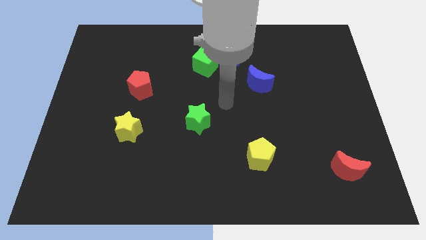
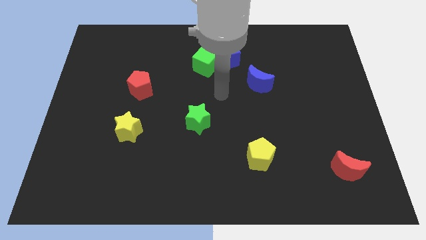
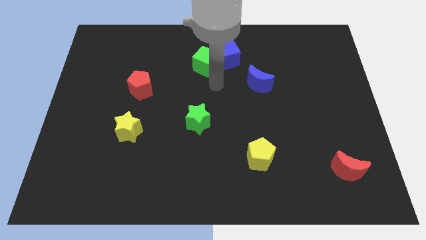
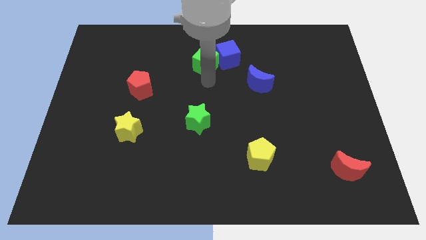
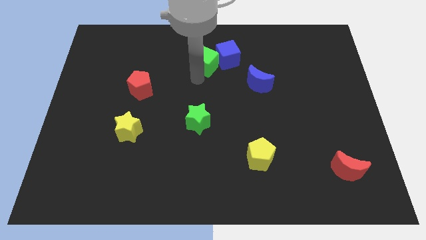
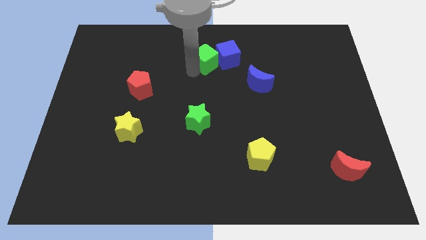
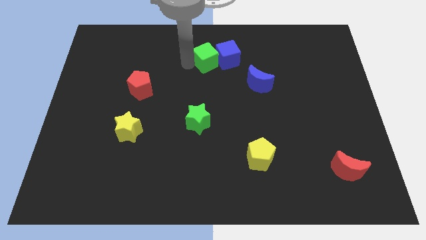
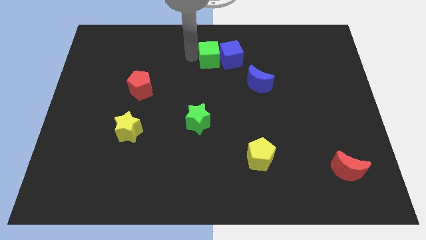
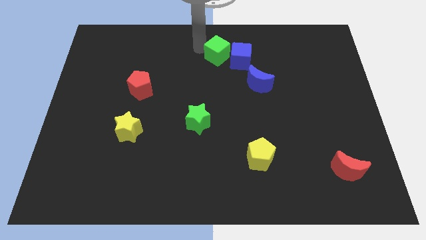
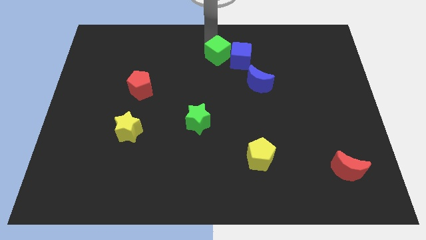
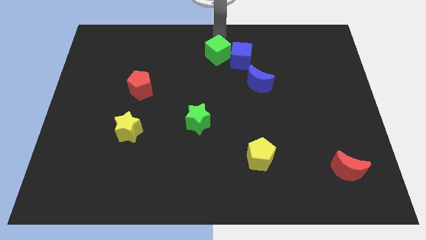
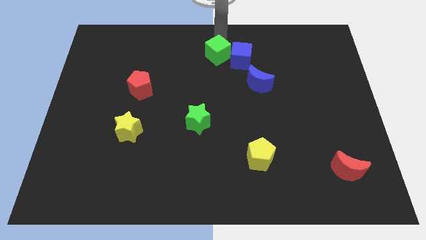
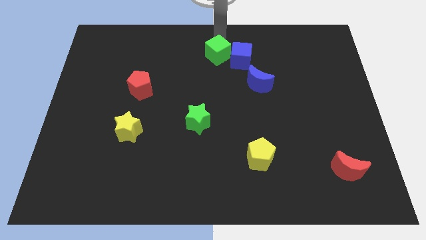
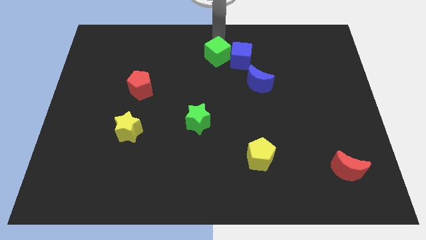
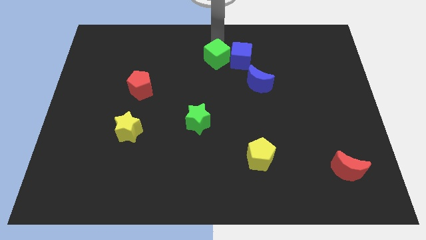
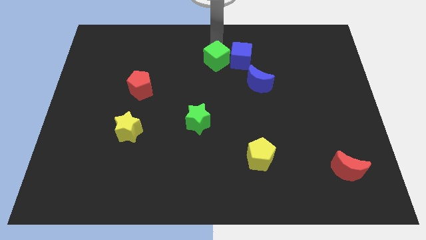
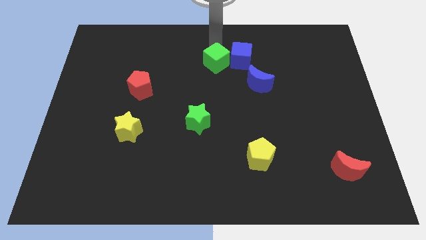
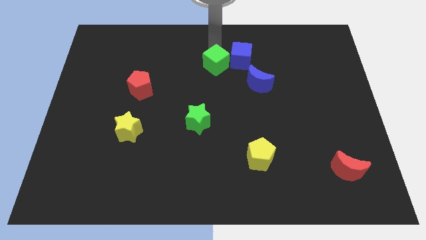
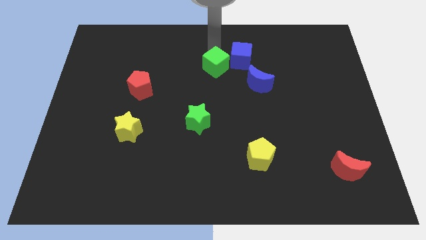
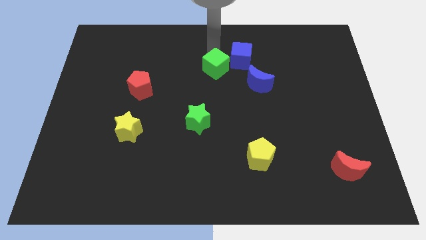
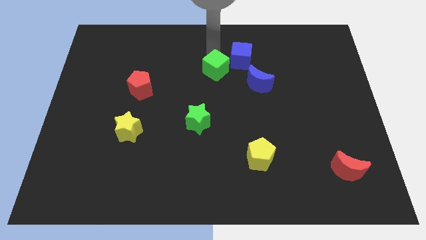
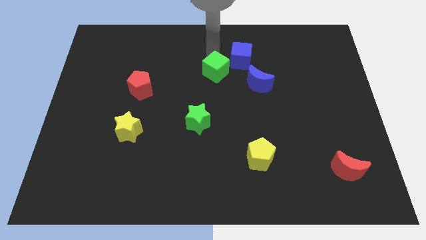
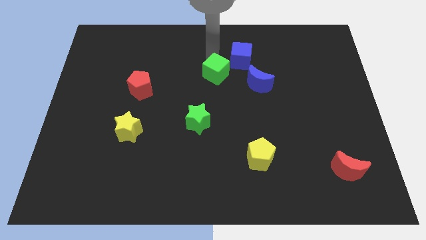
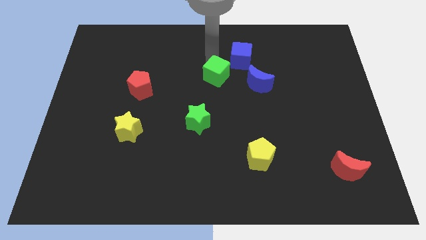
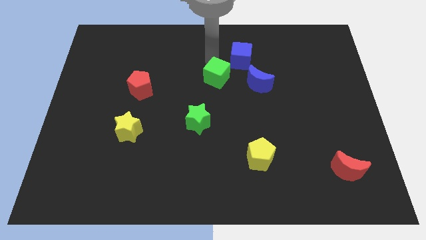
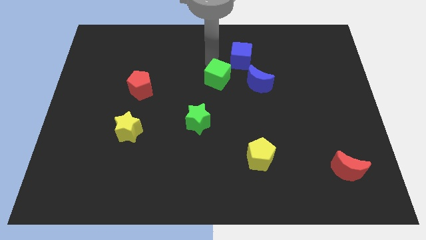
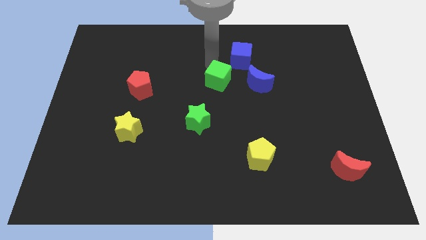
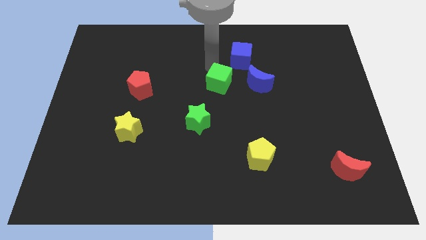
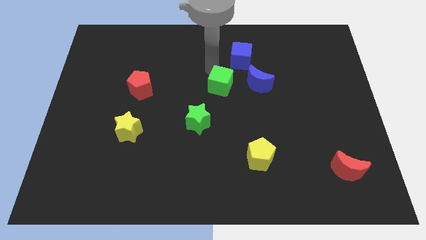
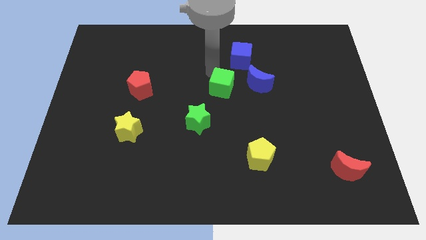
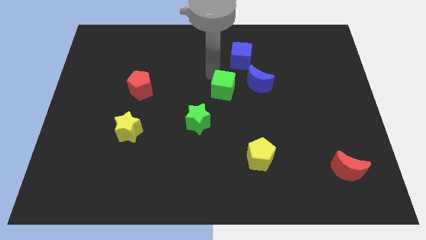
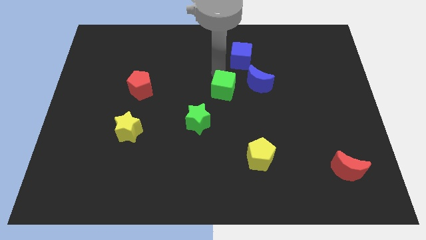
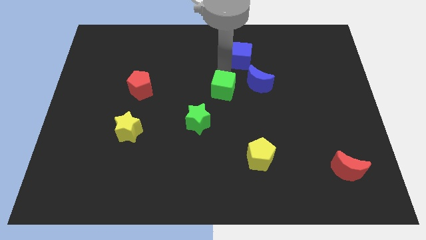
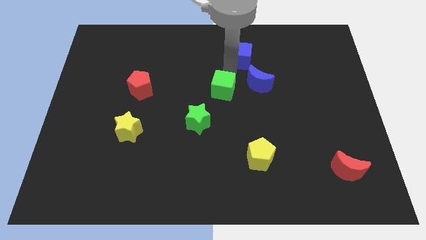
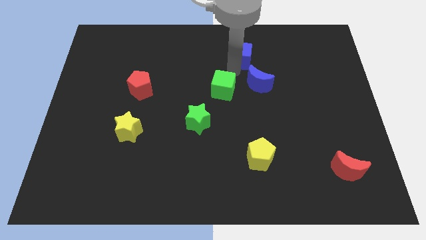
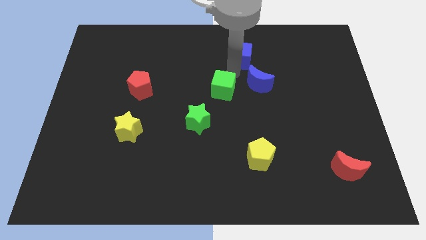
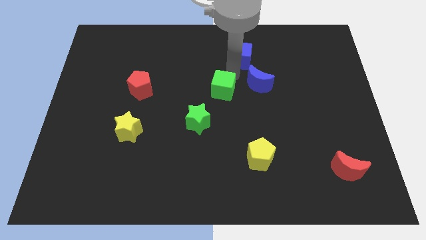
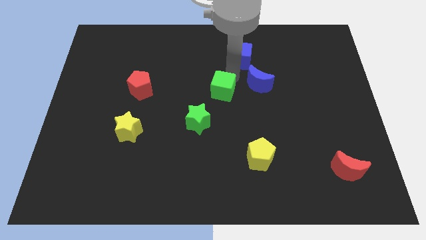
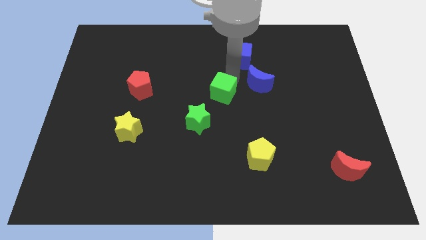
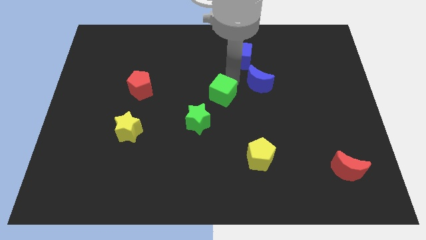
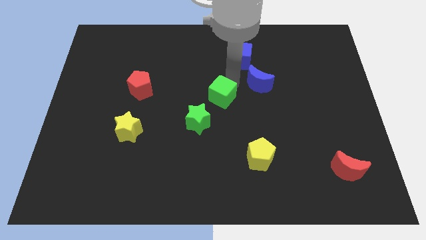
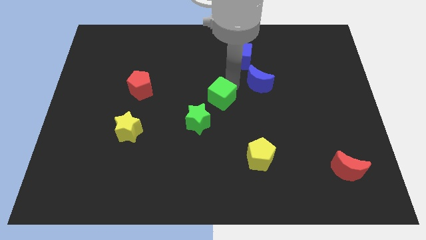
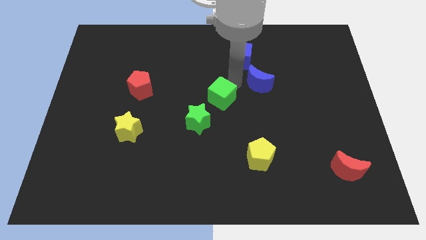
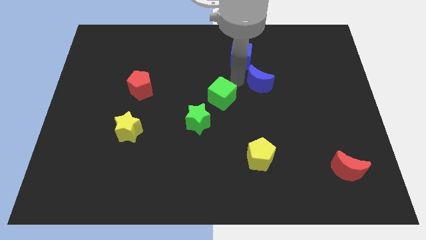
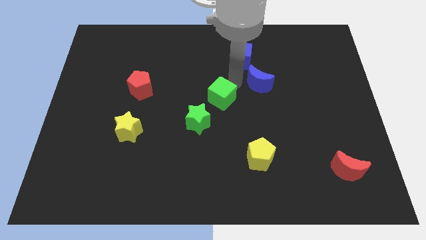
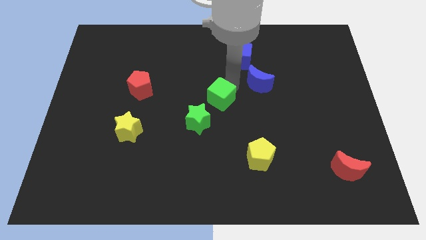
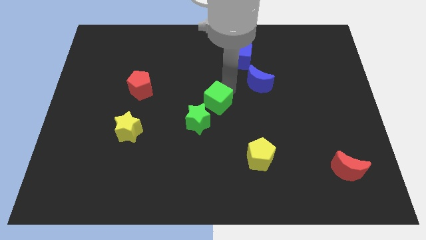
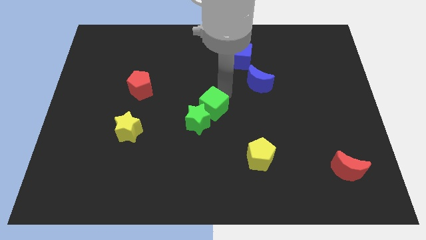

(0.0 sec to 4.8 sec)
move the green cube towards the green star

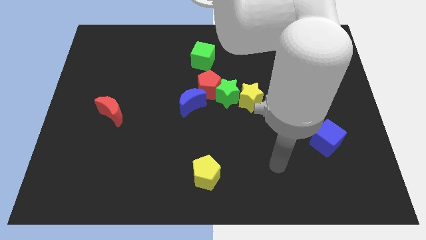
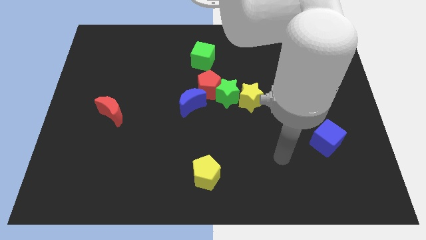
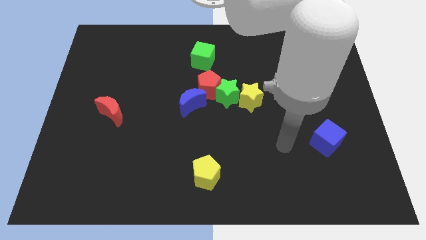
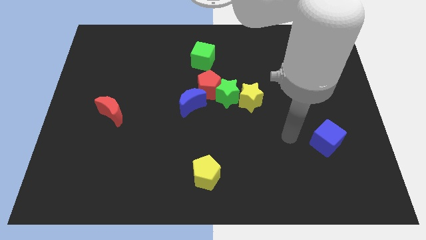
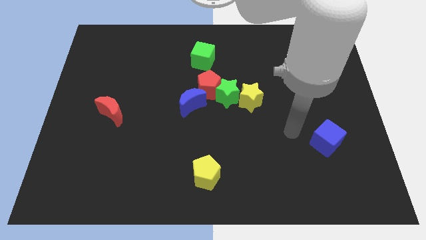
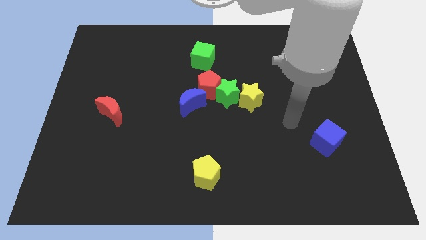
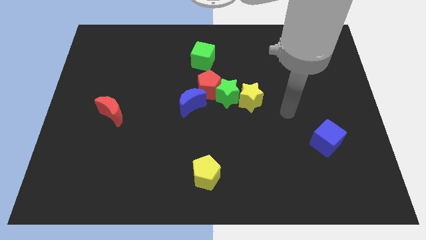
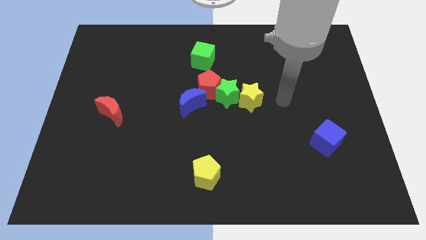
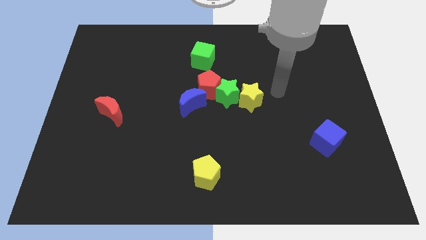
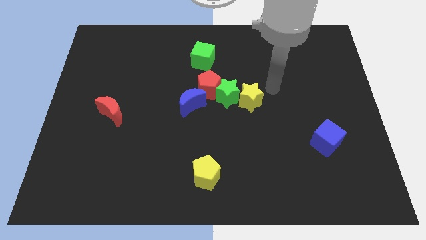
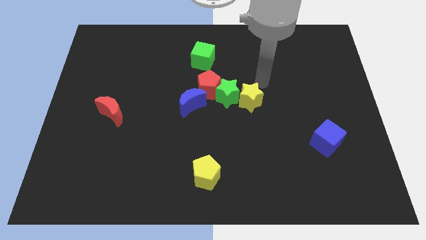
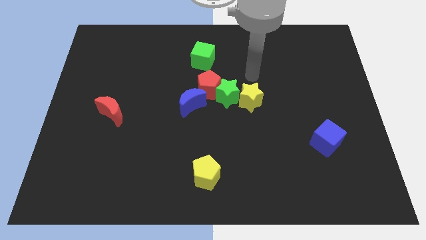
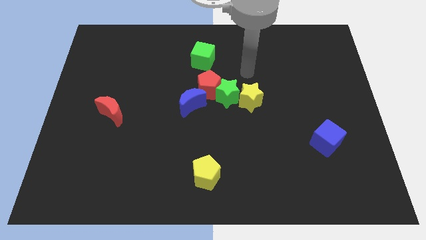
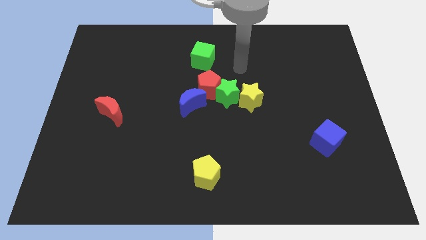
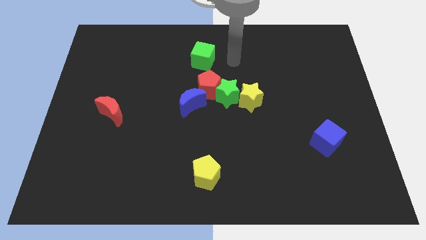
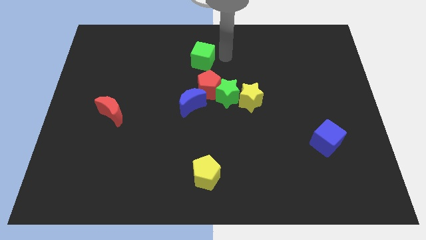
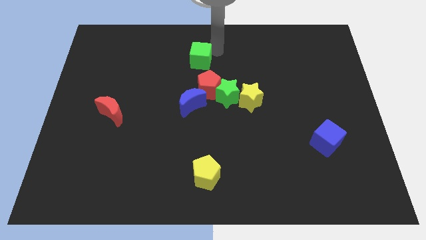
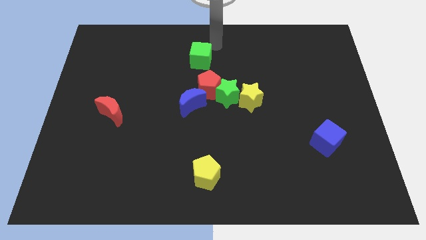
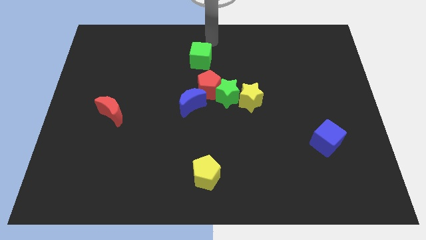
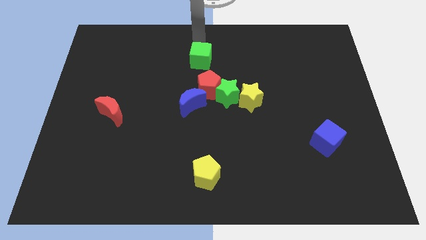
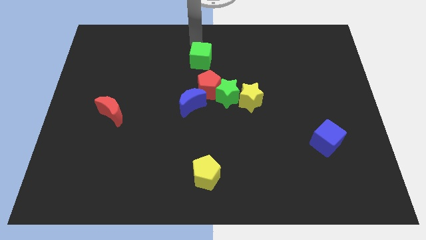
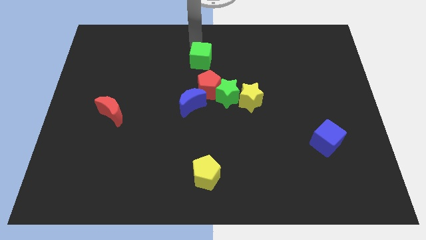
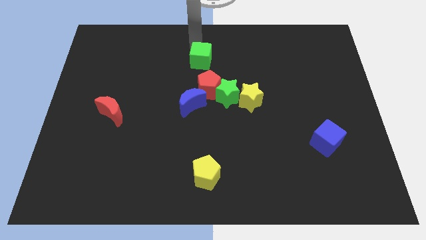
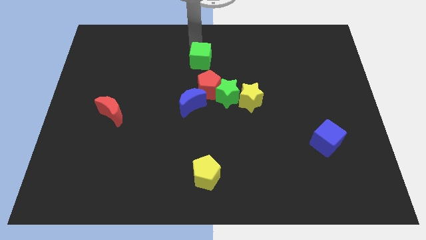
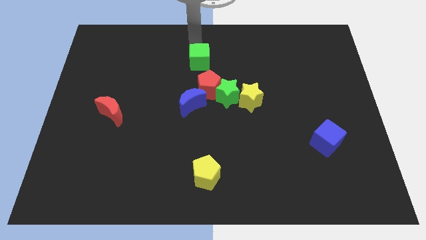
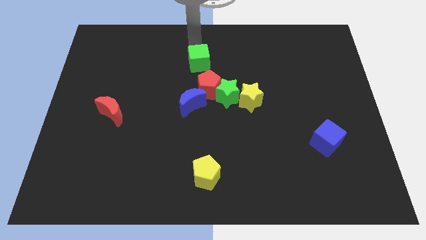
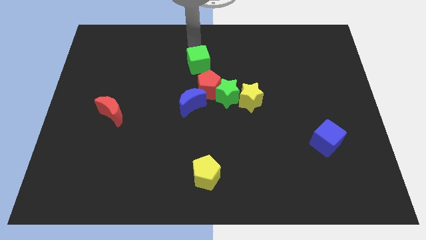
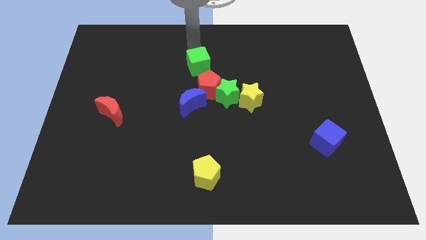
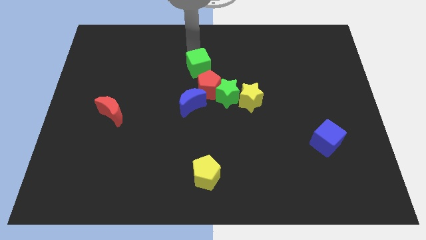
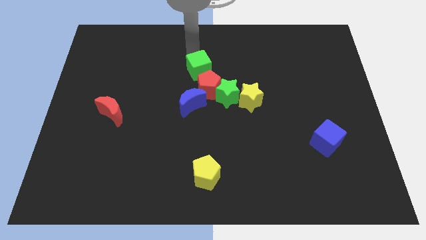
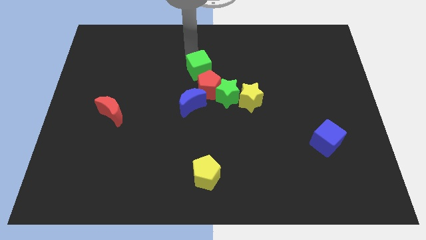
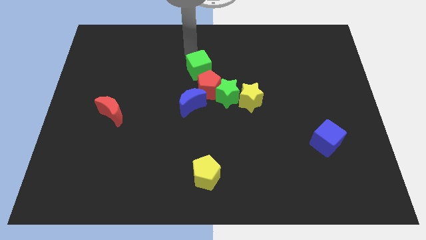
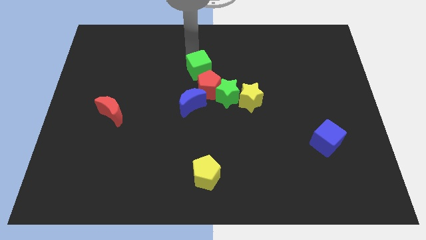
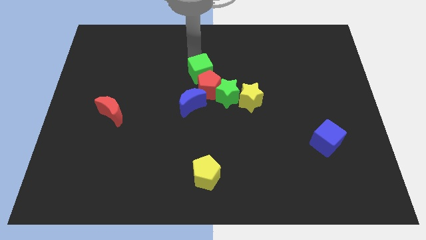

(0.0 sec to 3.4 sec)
slide the green cube close to the red pentagon
